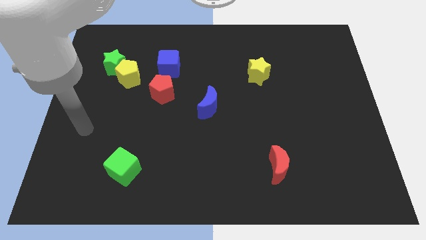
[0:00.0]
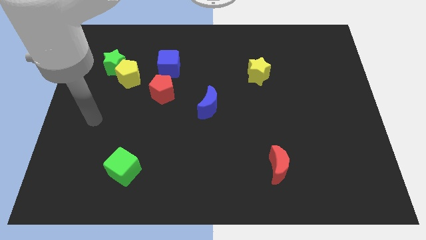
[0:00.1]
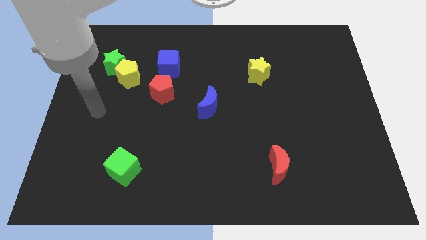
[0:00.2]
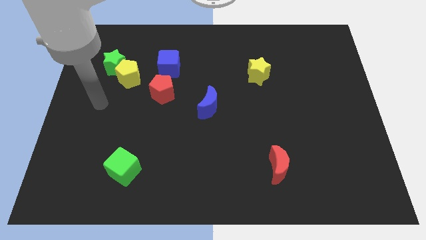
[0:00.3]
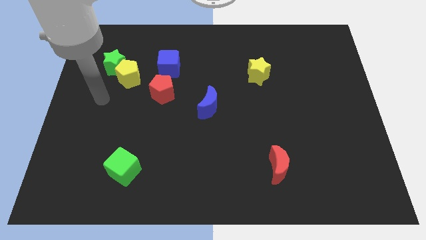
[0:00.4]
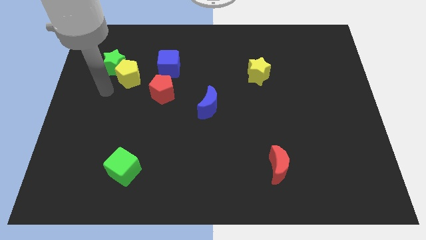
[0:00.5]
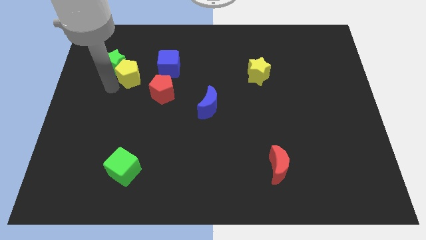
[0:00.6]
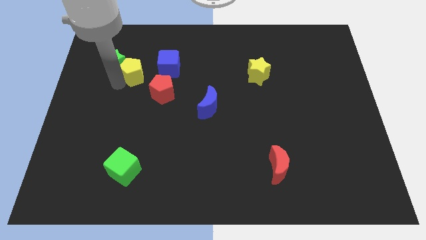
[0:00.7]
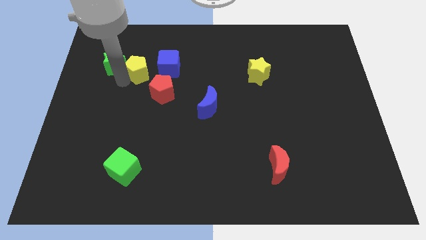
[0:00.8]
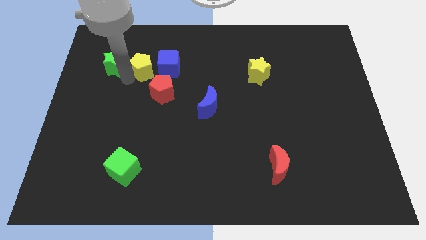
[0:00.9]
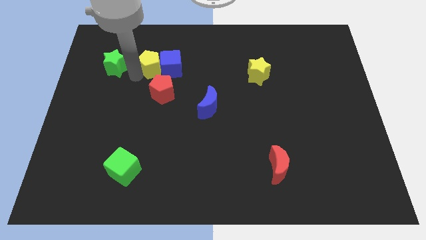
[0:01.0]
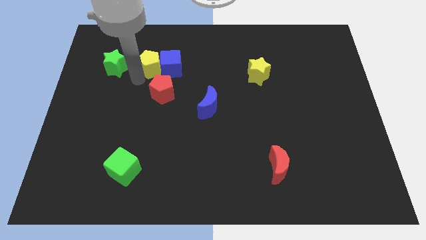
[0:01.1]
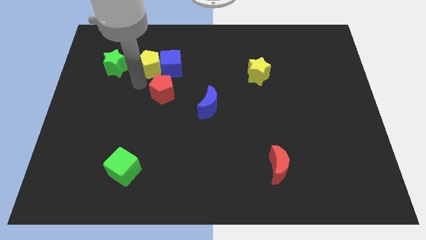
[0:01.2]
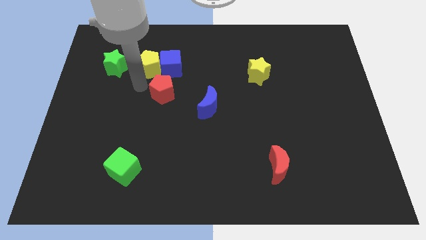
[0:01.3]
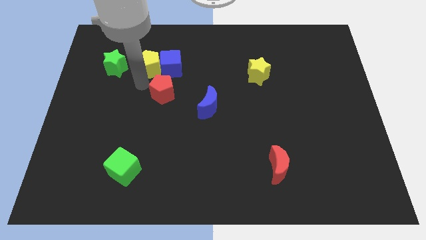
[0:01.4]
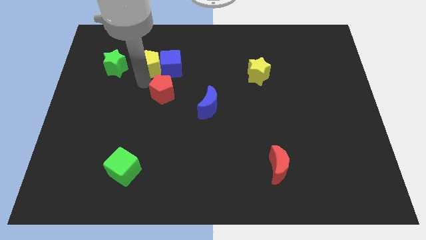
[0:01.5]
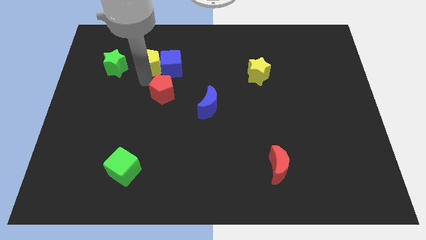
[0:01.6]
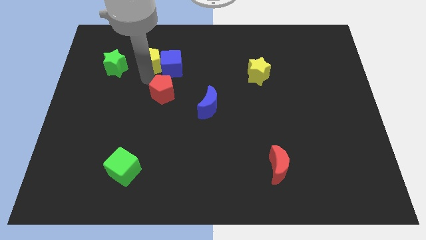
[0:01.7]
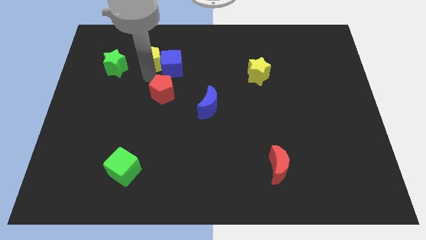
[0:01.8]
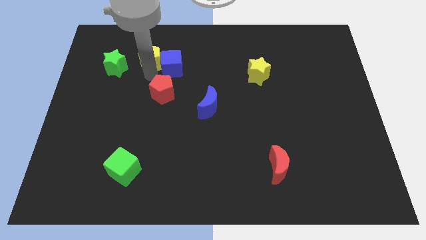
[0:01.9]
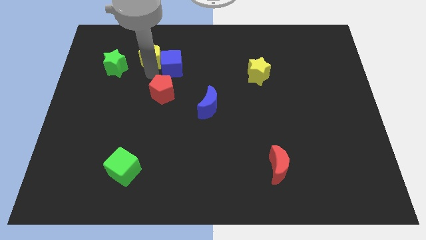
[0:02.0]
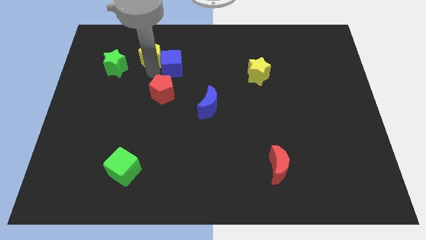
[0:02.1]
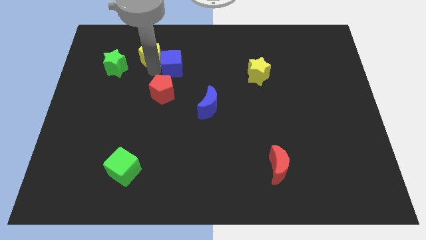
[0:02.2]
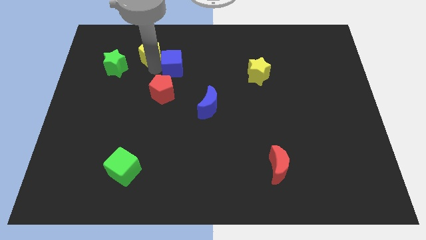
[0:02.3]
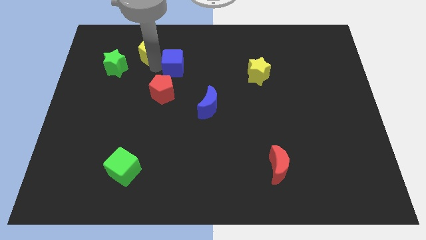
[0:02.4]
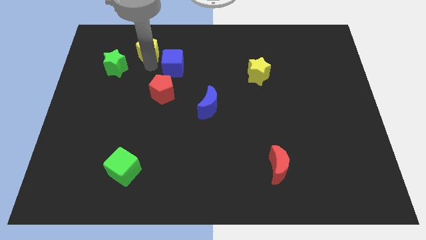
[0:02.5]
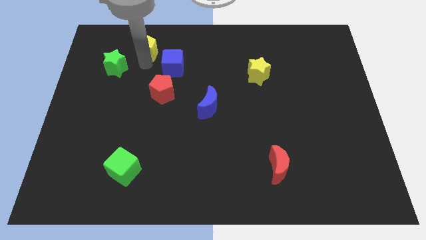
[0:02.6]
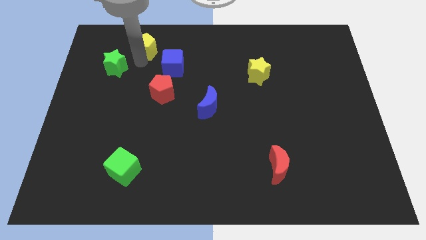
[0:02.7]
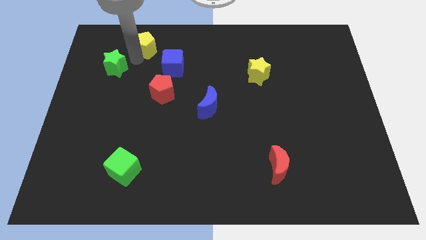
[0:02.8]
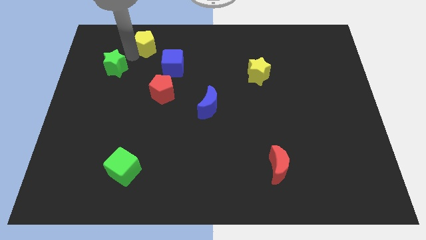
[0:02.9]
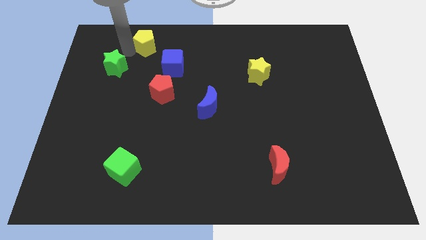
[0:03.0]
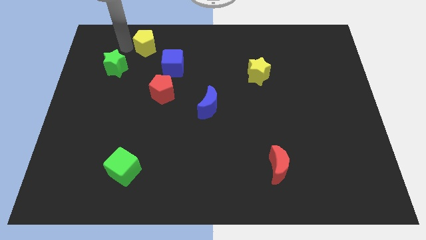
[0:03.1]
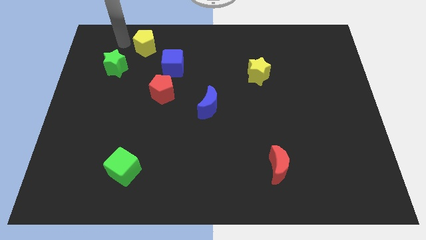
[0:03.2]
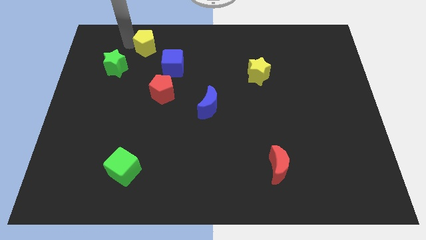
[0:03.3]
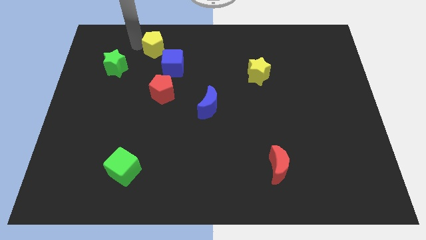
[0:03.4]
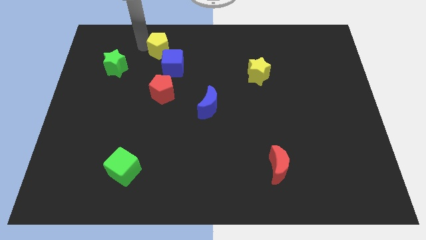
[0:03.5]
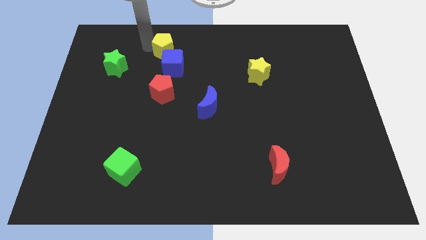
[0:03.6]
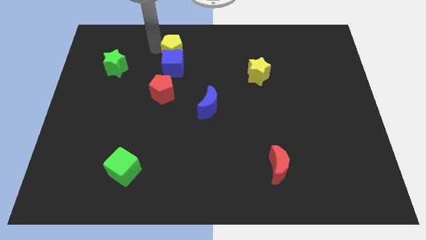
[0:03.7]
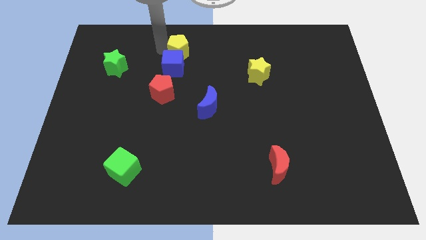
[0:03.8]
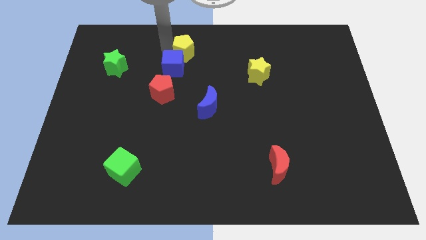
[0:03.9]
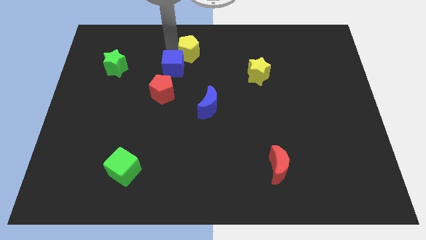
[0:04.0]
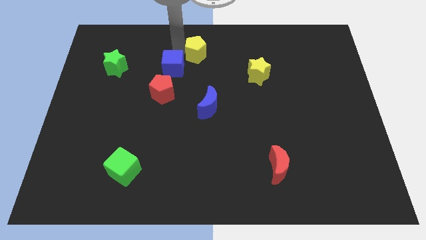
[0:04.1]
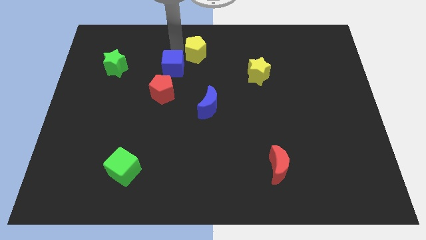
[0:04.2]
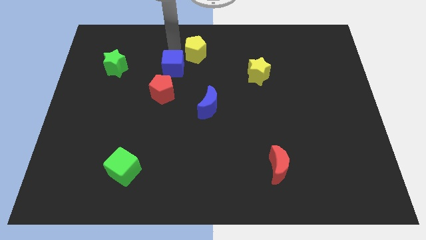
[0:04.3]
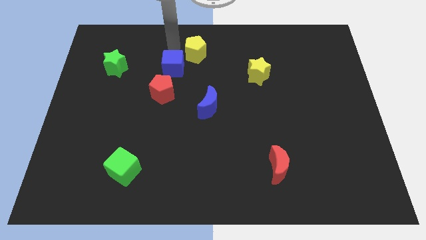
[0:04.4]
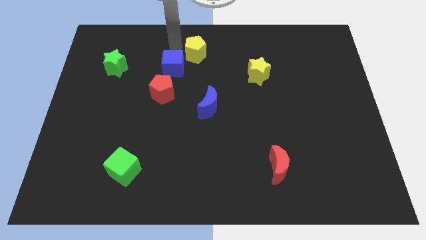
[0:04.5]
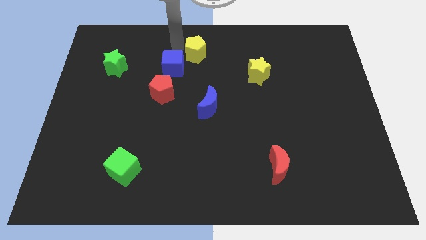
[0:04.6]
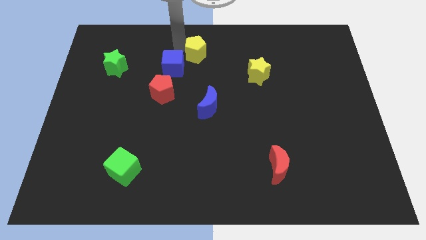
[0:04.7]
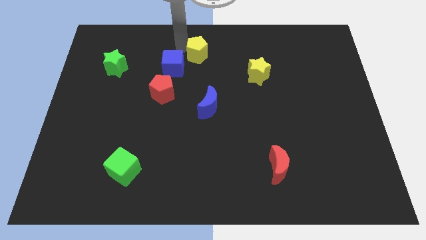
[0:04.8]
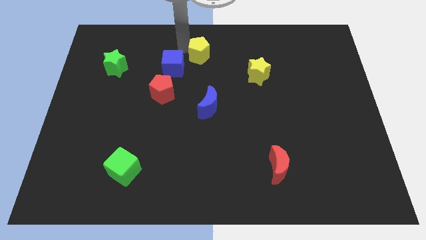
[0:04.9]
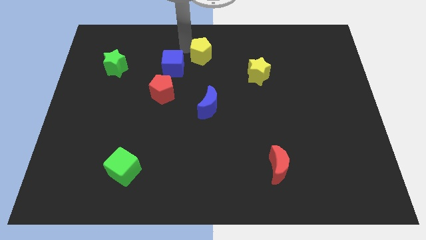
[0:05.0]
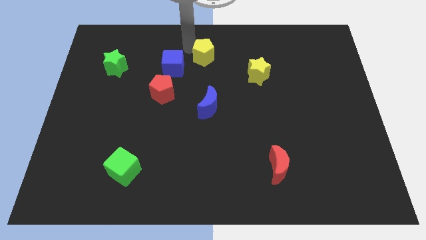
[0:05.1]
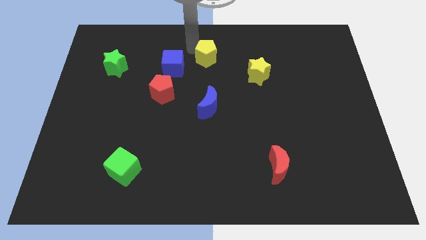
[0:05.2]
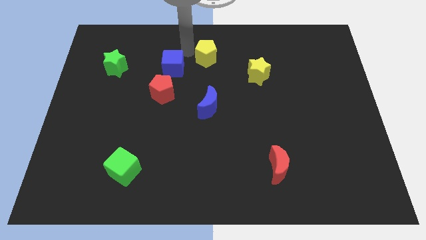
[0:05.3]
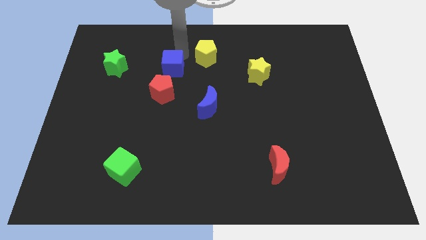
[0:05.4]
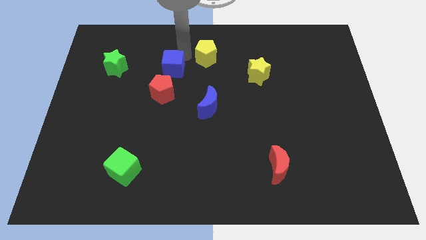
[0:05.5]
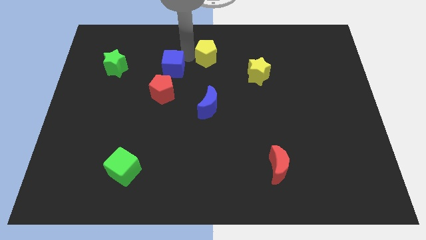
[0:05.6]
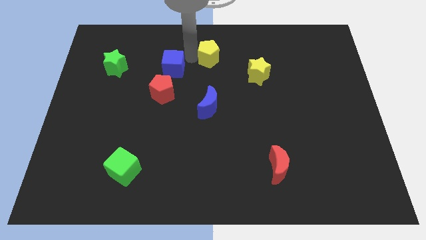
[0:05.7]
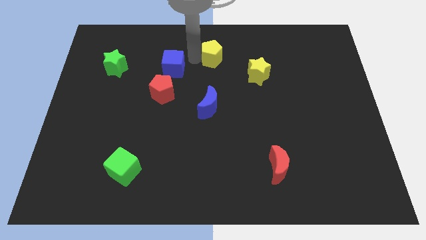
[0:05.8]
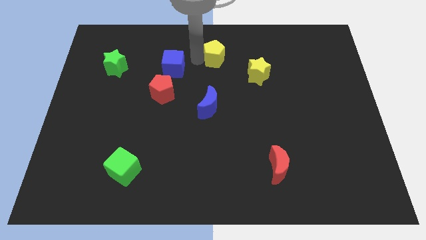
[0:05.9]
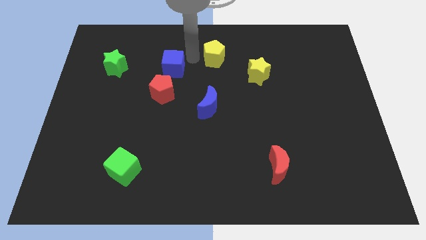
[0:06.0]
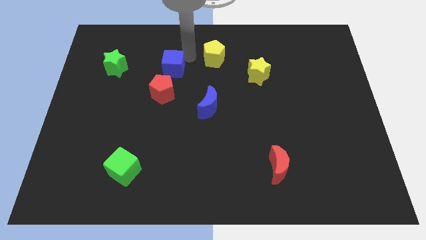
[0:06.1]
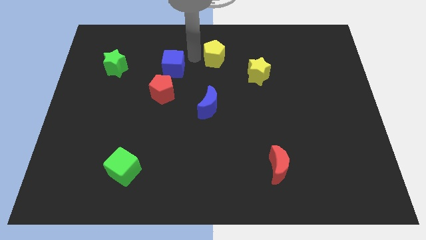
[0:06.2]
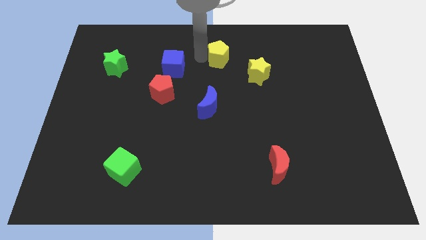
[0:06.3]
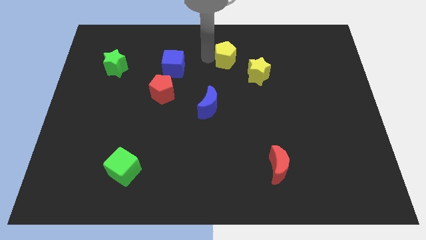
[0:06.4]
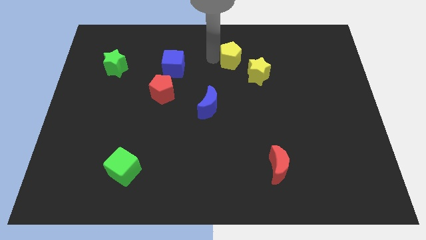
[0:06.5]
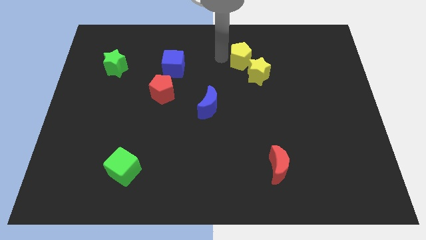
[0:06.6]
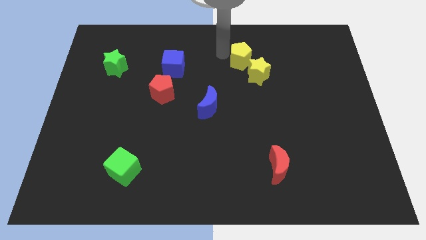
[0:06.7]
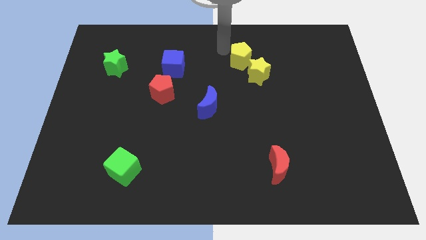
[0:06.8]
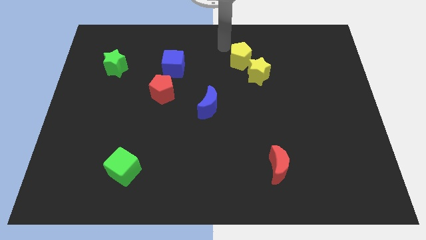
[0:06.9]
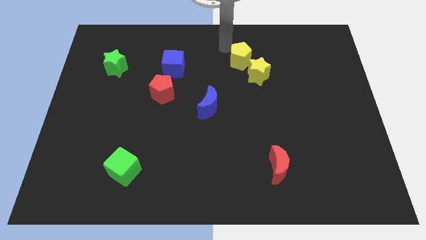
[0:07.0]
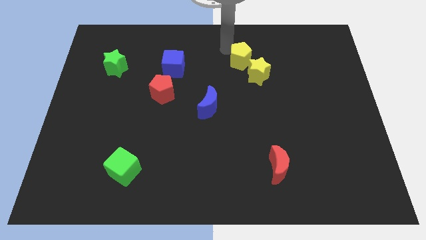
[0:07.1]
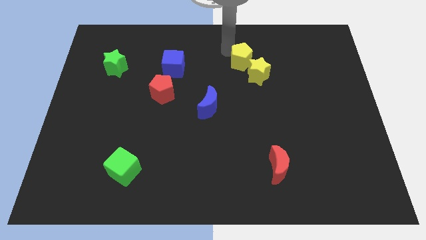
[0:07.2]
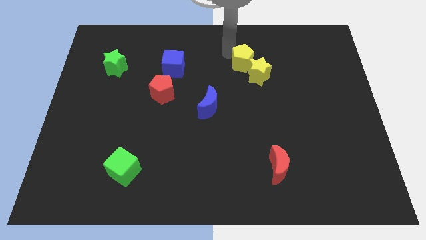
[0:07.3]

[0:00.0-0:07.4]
slide the yellow pentagon close to the yellow star
